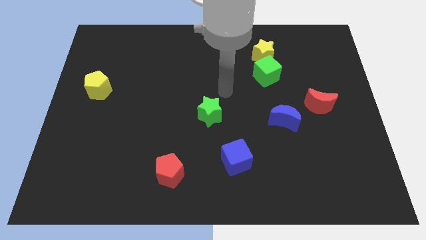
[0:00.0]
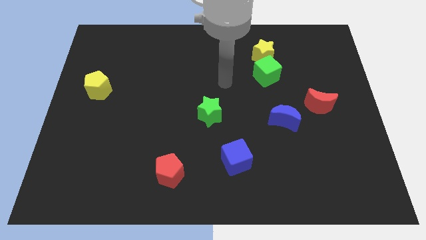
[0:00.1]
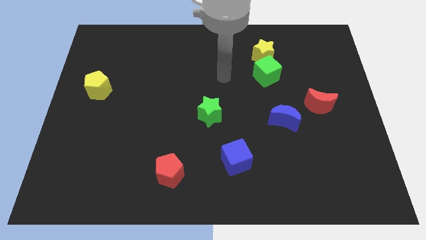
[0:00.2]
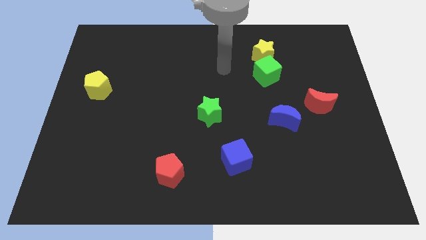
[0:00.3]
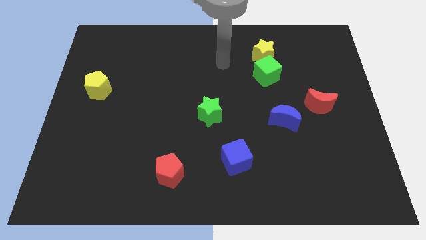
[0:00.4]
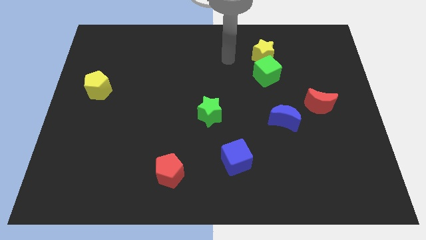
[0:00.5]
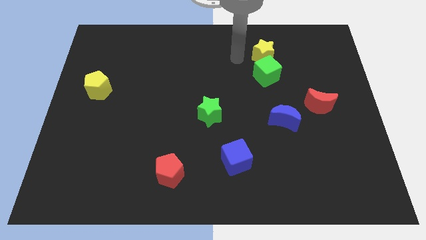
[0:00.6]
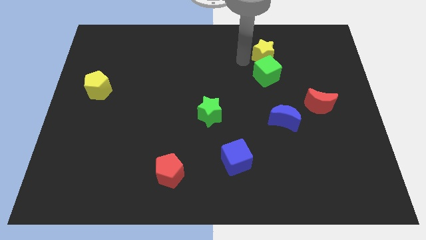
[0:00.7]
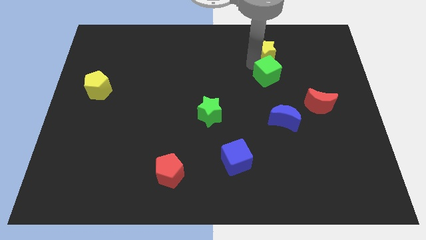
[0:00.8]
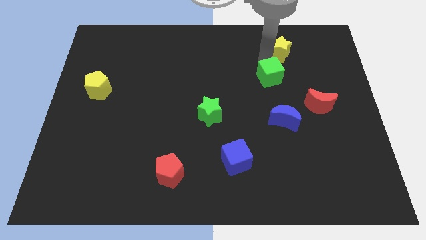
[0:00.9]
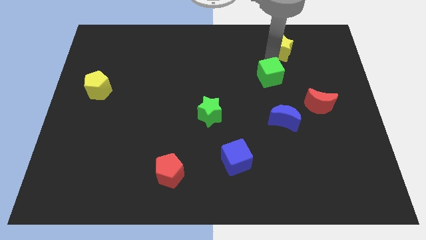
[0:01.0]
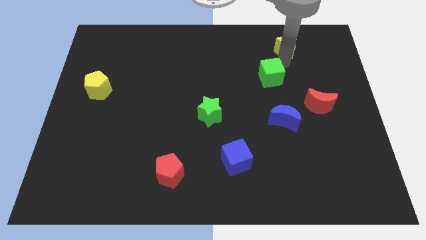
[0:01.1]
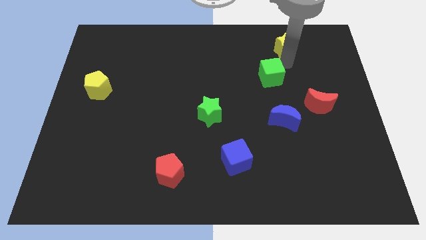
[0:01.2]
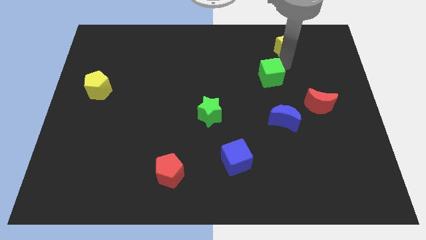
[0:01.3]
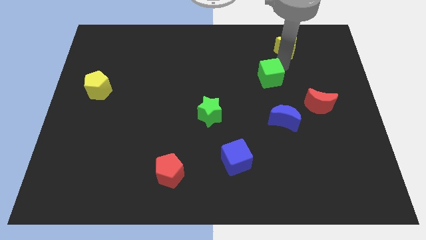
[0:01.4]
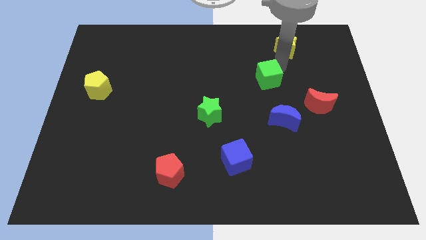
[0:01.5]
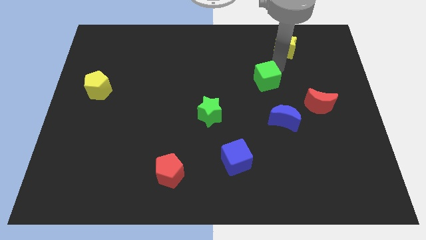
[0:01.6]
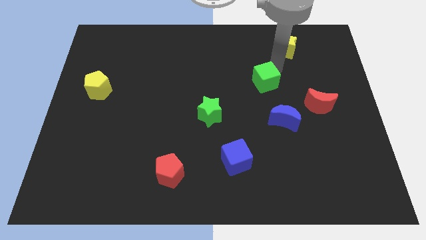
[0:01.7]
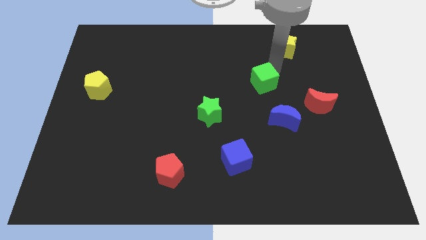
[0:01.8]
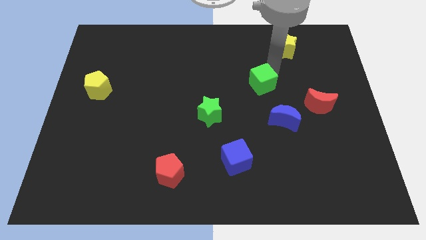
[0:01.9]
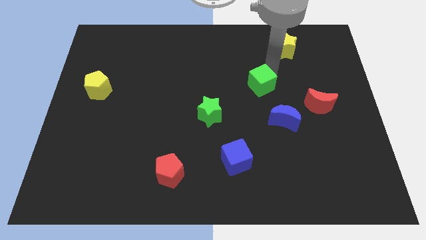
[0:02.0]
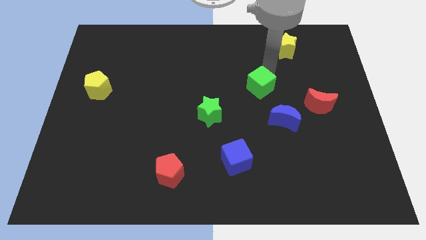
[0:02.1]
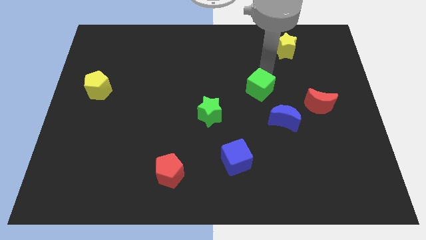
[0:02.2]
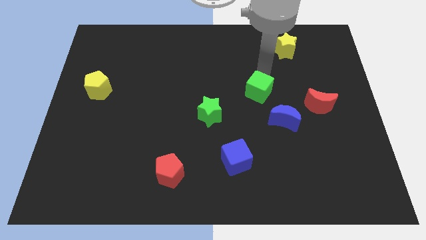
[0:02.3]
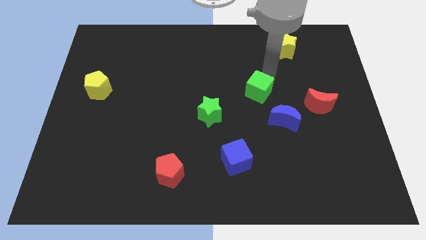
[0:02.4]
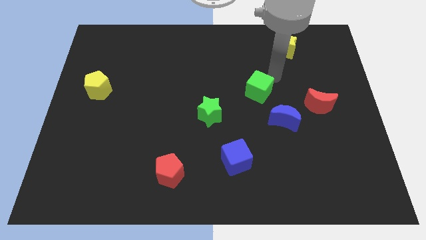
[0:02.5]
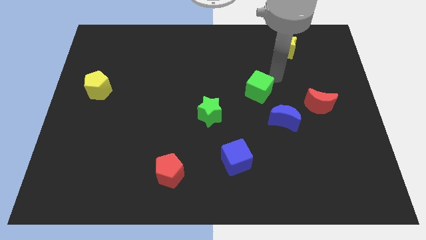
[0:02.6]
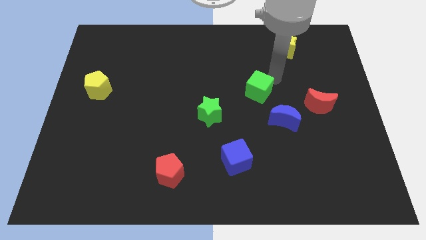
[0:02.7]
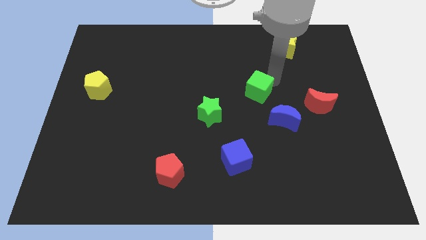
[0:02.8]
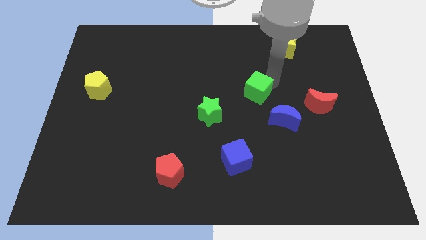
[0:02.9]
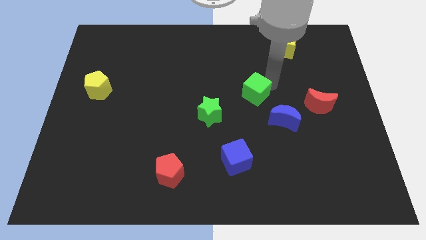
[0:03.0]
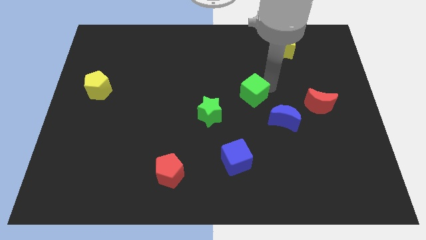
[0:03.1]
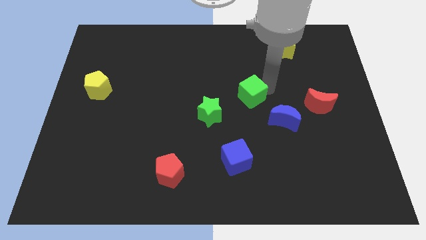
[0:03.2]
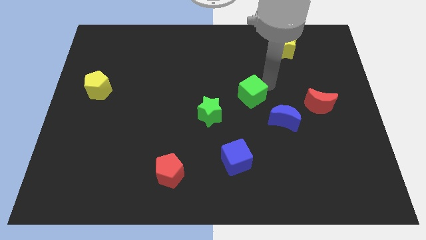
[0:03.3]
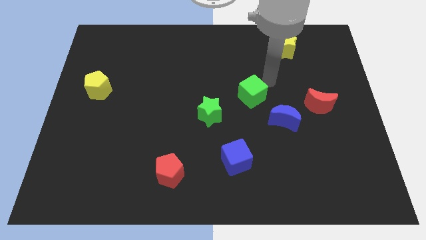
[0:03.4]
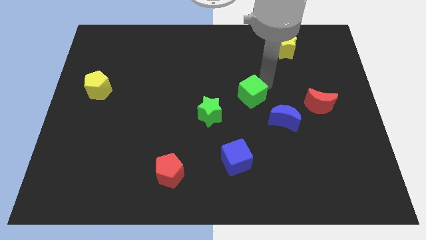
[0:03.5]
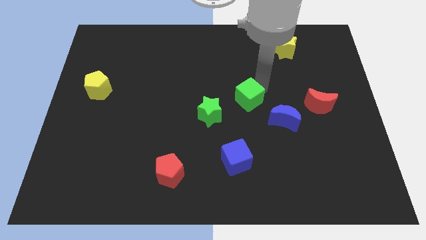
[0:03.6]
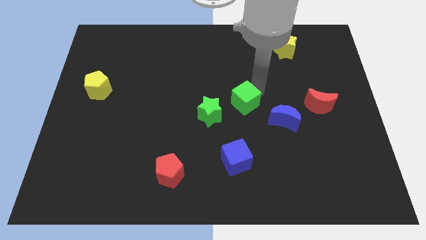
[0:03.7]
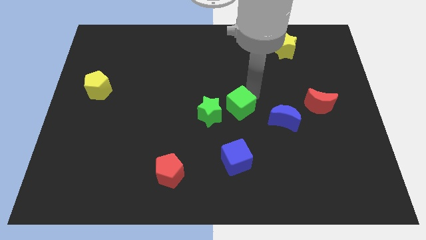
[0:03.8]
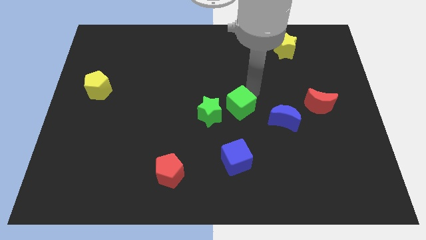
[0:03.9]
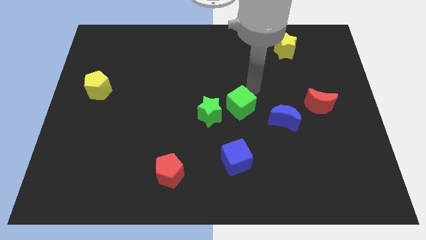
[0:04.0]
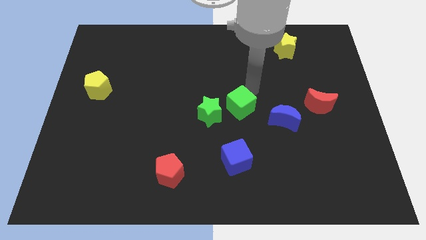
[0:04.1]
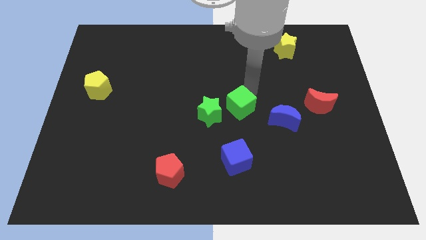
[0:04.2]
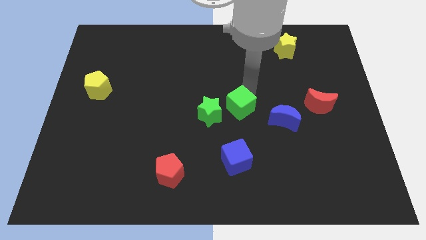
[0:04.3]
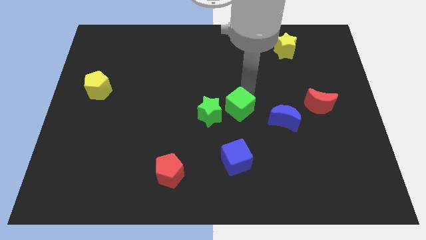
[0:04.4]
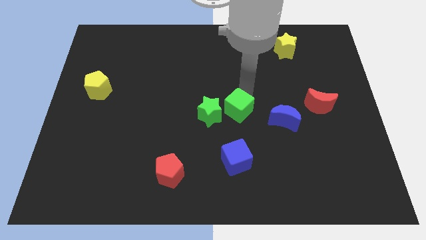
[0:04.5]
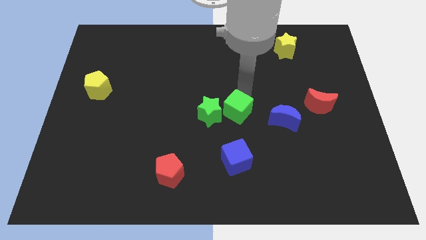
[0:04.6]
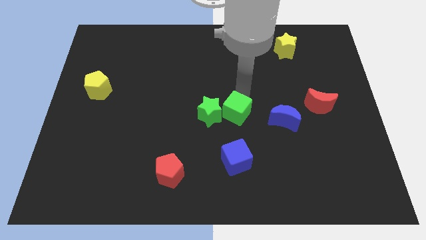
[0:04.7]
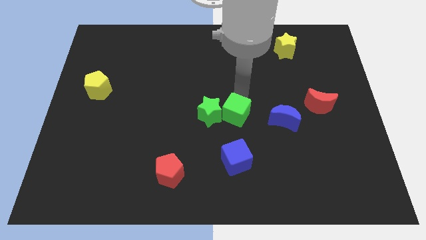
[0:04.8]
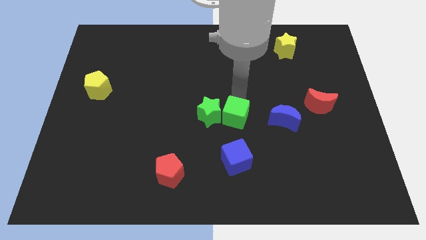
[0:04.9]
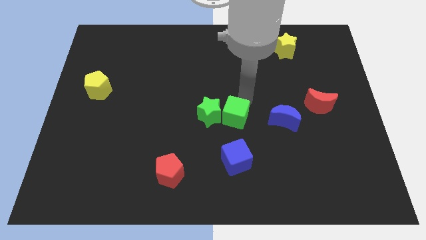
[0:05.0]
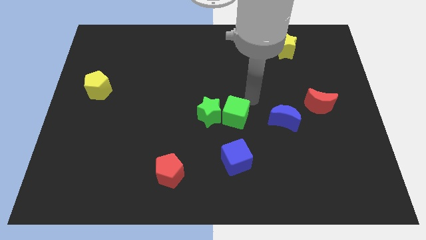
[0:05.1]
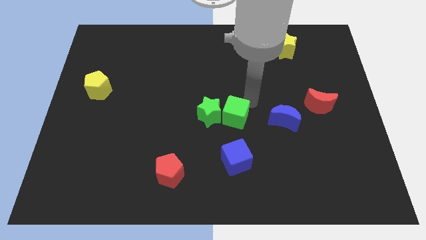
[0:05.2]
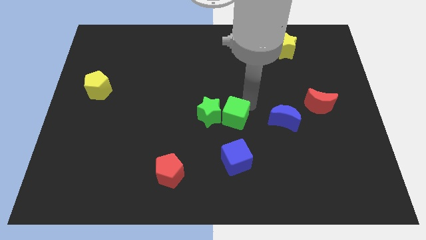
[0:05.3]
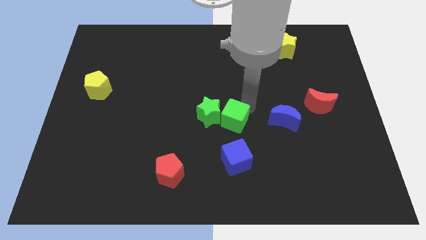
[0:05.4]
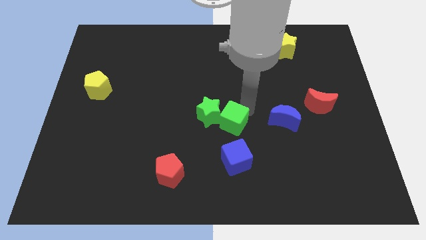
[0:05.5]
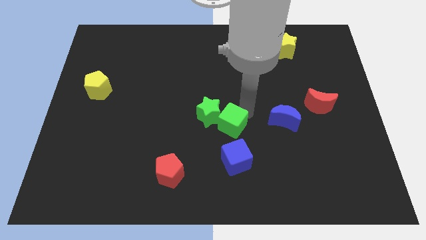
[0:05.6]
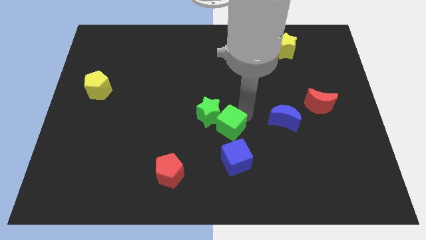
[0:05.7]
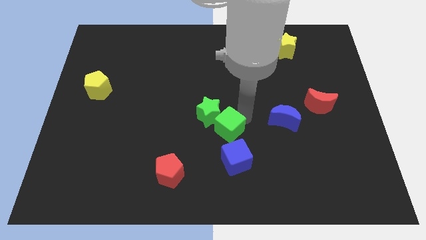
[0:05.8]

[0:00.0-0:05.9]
slide the green cube diagonally up and to the left of the blue cube

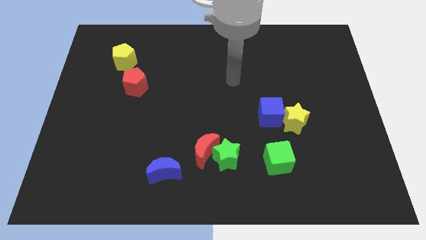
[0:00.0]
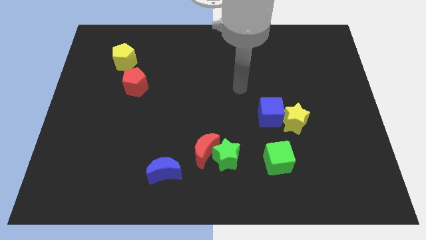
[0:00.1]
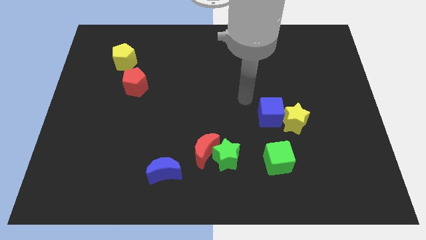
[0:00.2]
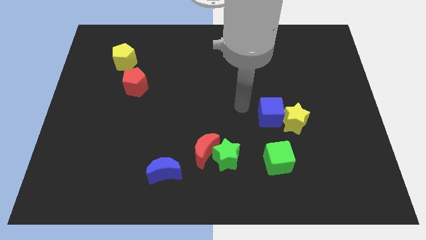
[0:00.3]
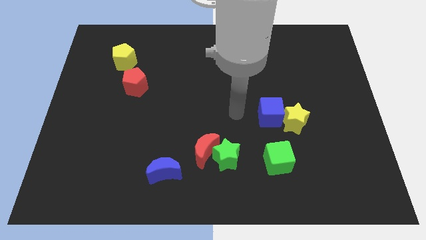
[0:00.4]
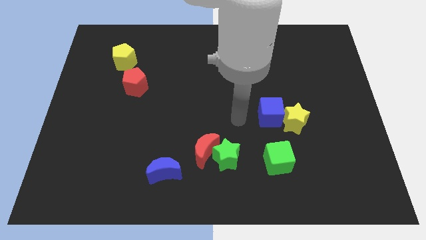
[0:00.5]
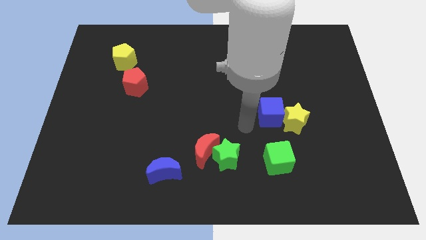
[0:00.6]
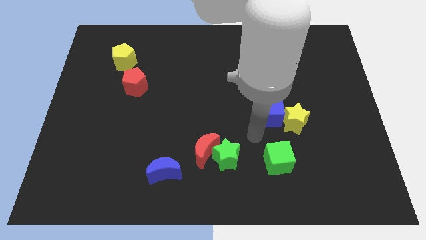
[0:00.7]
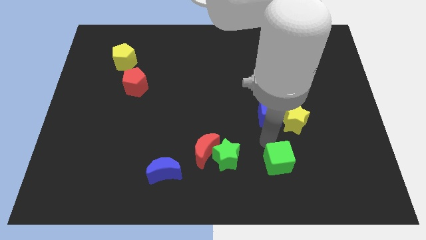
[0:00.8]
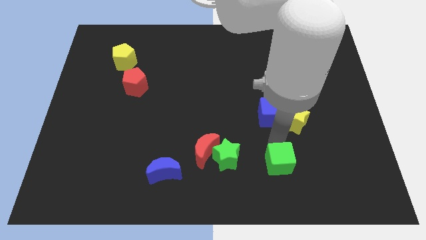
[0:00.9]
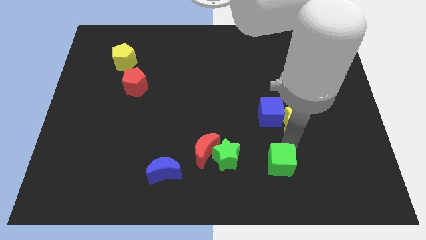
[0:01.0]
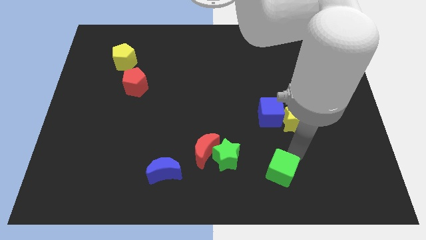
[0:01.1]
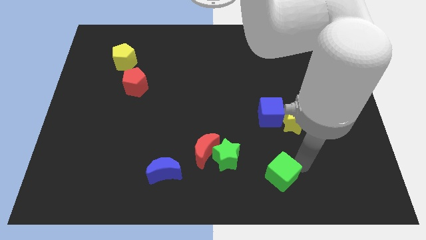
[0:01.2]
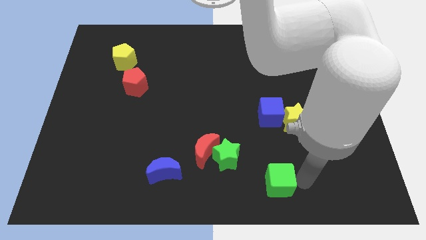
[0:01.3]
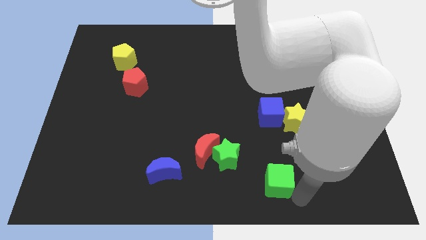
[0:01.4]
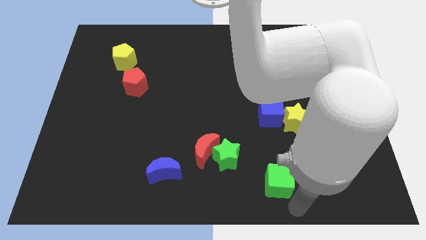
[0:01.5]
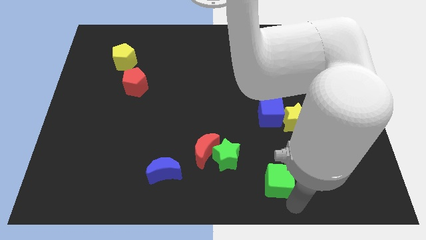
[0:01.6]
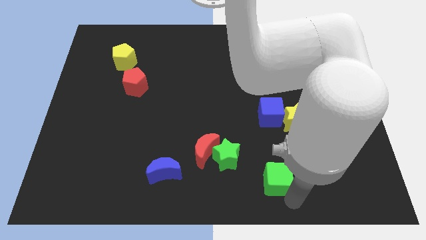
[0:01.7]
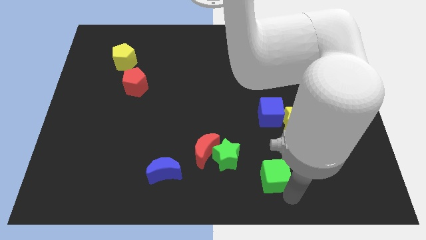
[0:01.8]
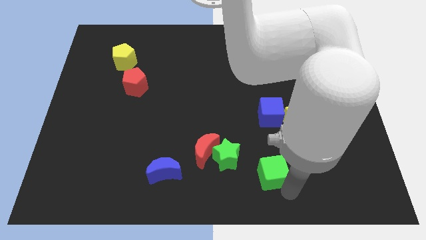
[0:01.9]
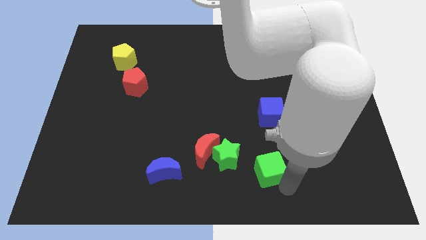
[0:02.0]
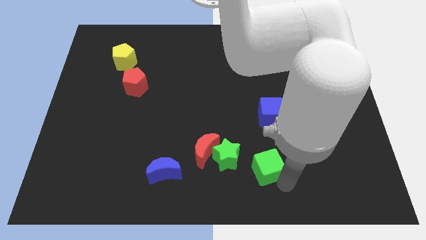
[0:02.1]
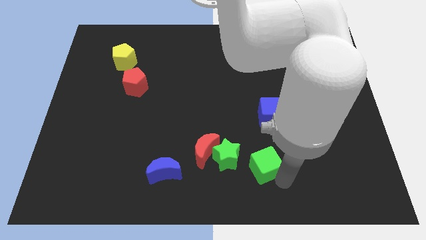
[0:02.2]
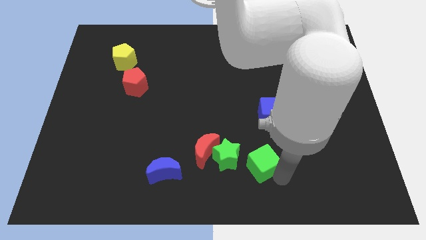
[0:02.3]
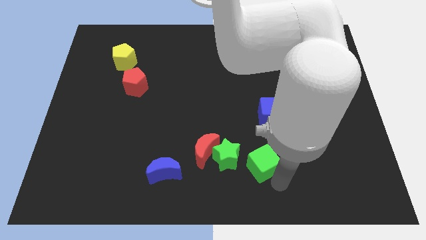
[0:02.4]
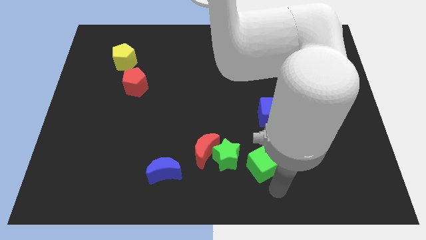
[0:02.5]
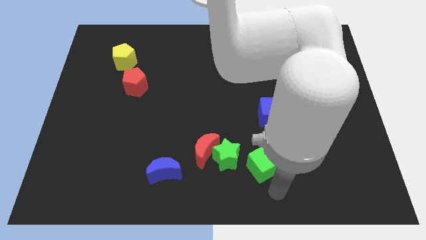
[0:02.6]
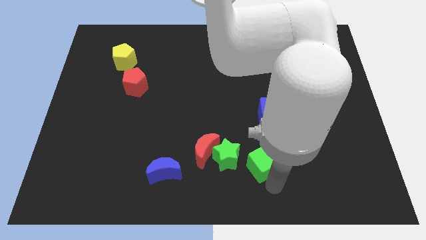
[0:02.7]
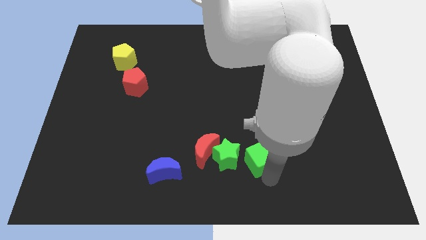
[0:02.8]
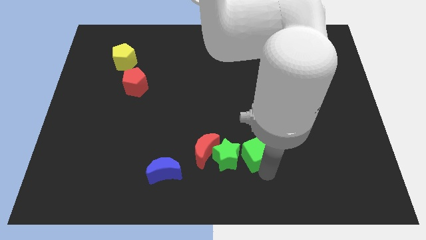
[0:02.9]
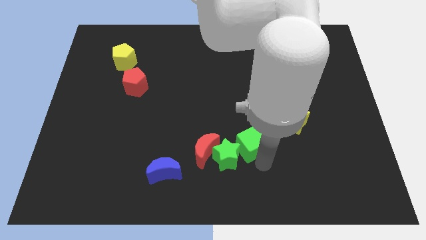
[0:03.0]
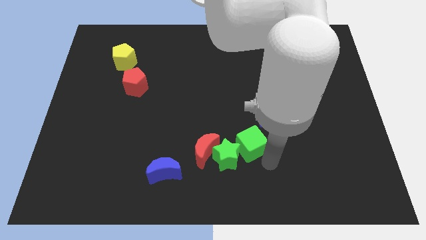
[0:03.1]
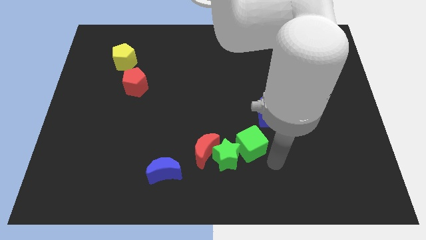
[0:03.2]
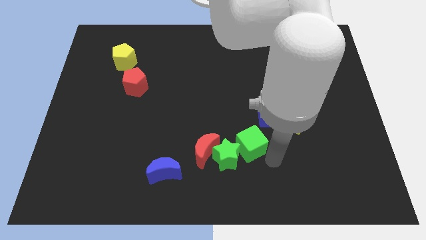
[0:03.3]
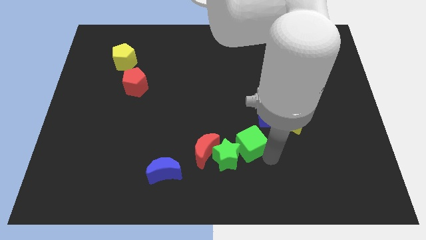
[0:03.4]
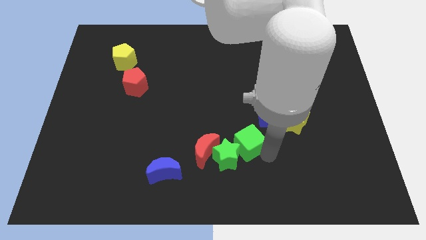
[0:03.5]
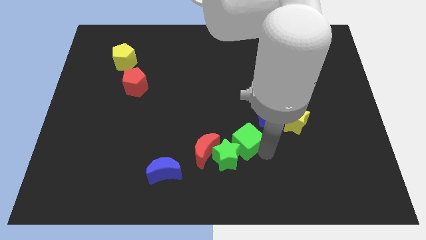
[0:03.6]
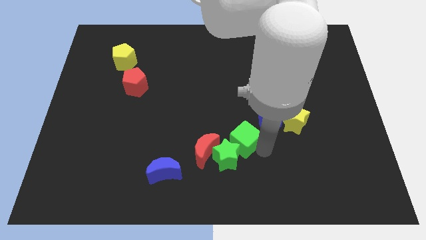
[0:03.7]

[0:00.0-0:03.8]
put the green cube diagonally up and to the right of the red moon
